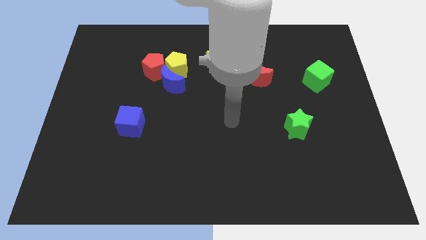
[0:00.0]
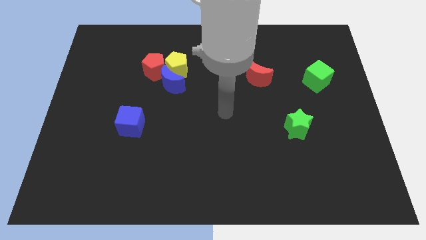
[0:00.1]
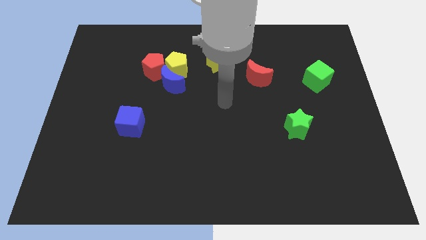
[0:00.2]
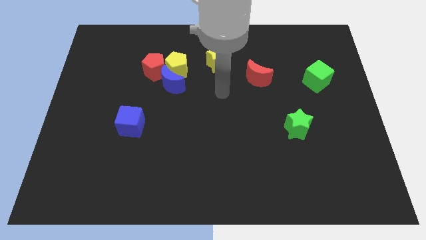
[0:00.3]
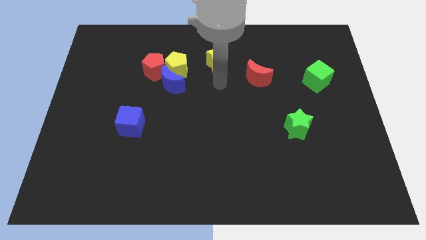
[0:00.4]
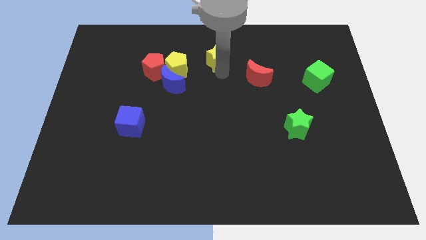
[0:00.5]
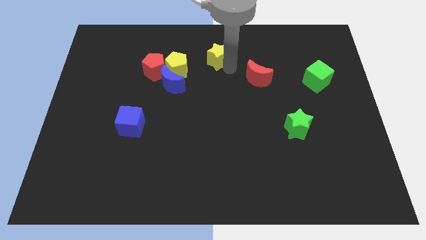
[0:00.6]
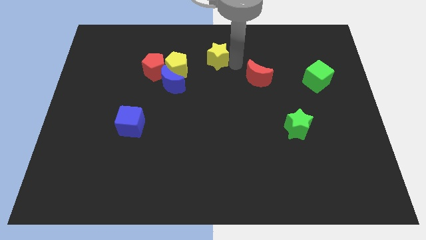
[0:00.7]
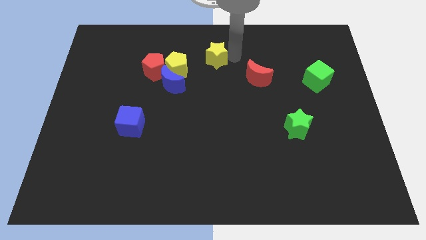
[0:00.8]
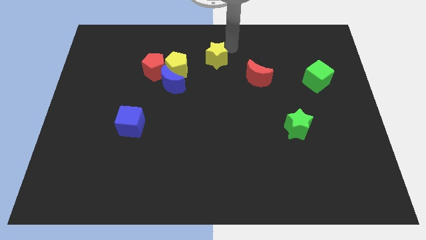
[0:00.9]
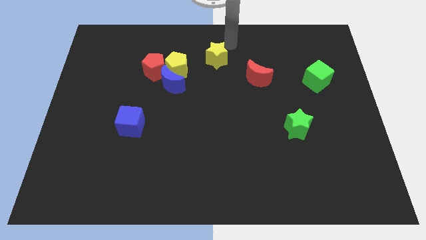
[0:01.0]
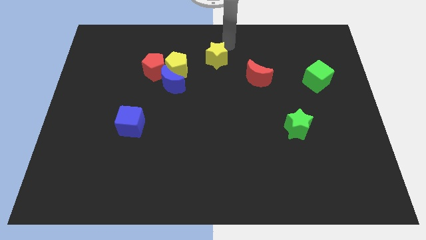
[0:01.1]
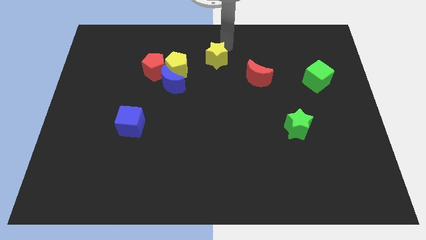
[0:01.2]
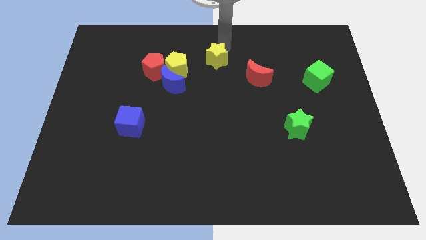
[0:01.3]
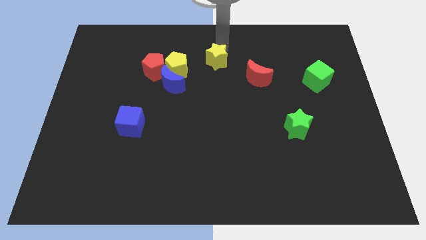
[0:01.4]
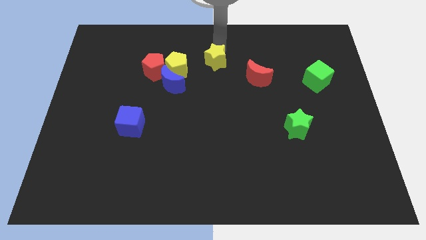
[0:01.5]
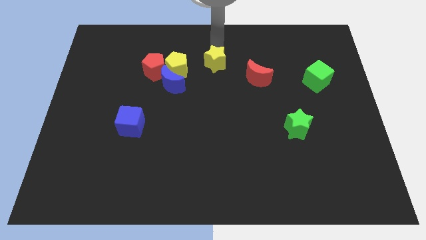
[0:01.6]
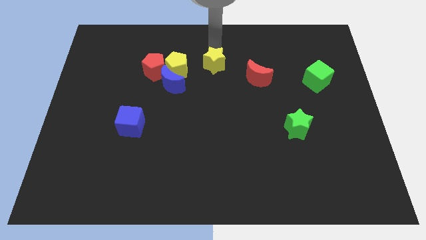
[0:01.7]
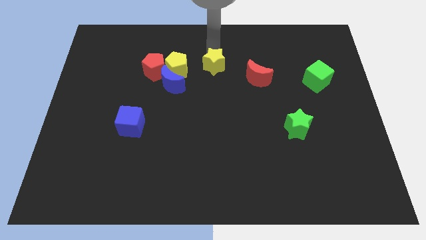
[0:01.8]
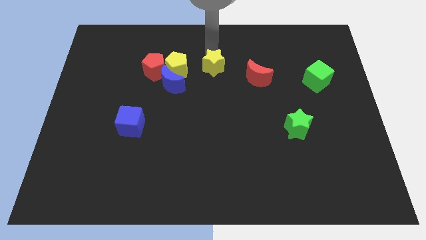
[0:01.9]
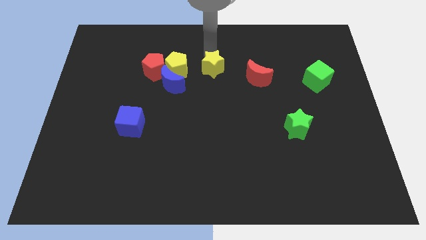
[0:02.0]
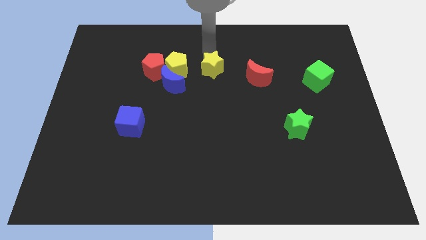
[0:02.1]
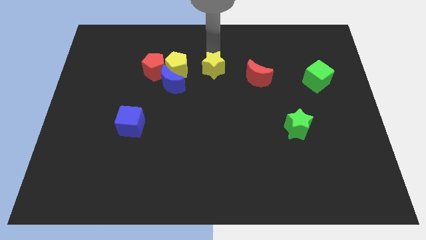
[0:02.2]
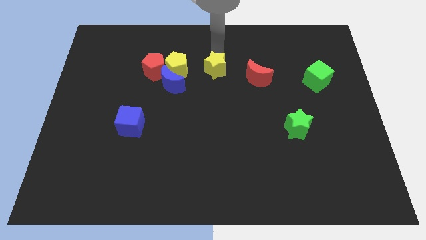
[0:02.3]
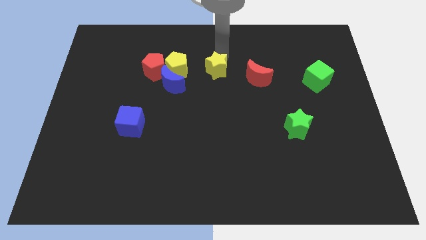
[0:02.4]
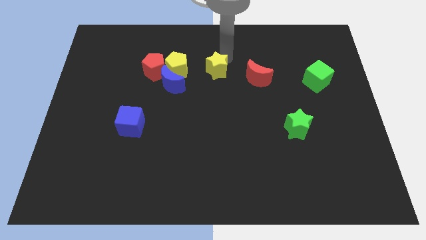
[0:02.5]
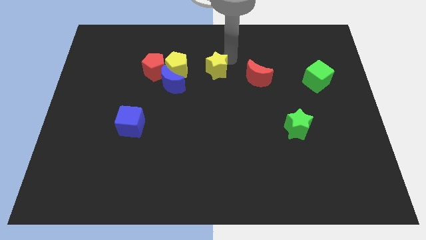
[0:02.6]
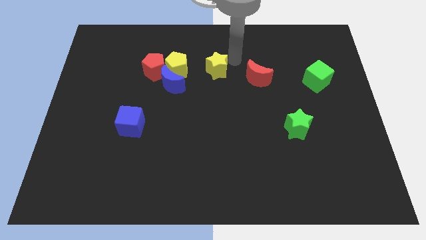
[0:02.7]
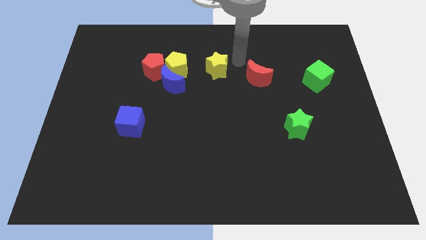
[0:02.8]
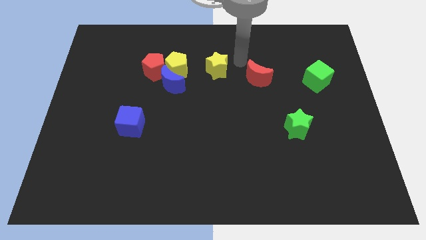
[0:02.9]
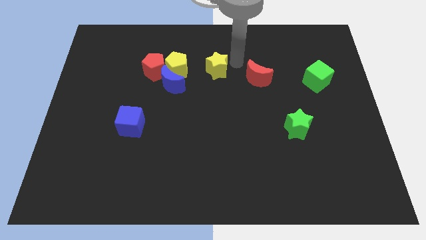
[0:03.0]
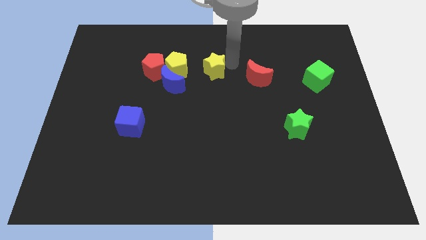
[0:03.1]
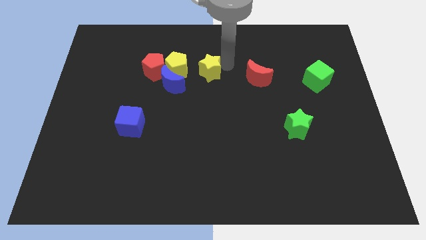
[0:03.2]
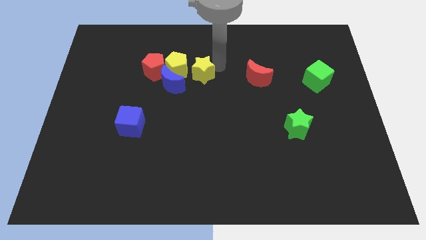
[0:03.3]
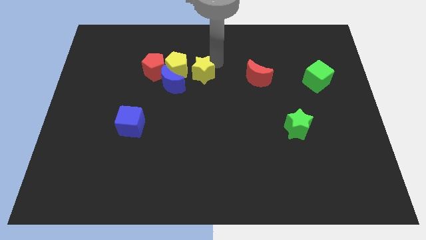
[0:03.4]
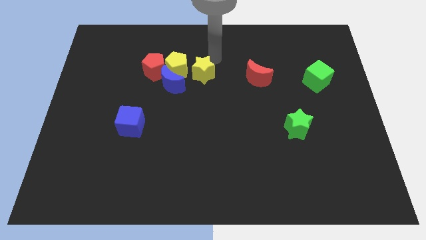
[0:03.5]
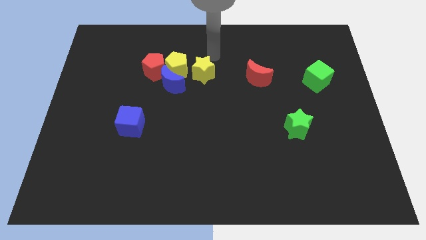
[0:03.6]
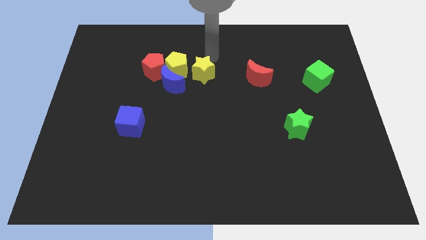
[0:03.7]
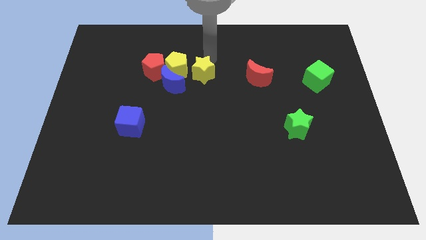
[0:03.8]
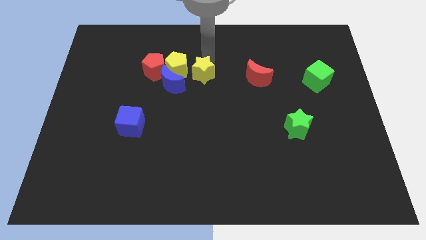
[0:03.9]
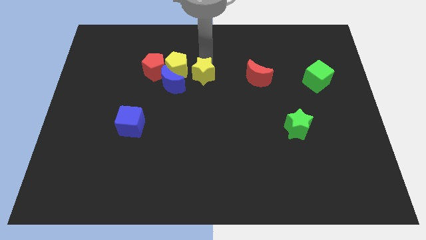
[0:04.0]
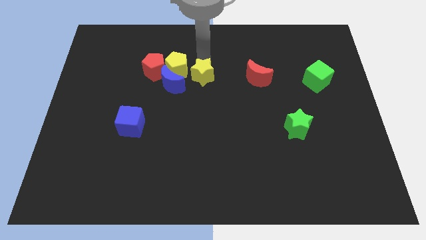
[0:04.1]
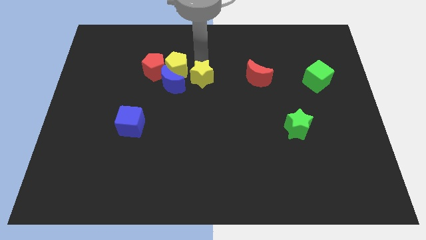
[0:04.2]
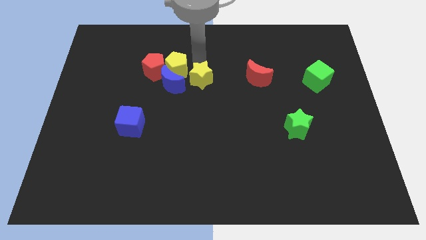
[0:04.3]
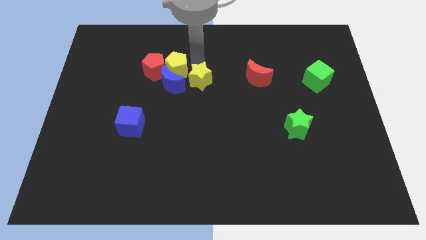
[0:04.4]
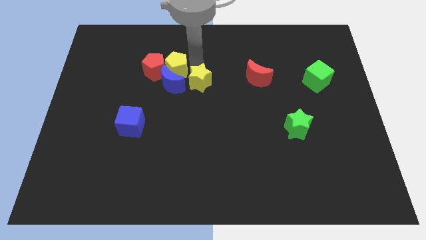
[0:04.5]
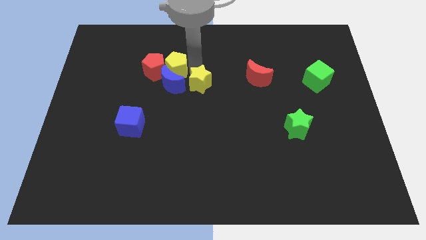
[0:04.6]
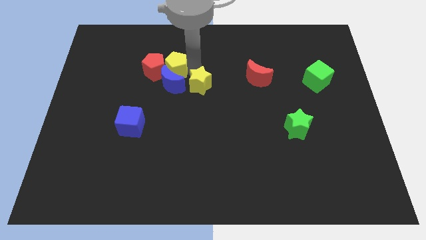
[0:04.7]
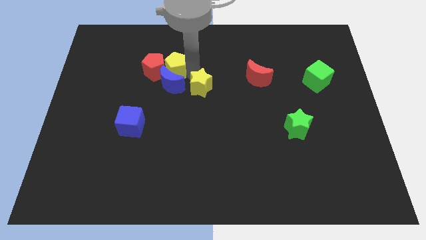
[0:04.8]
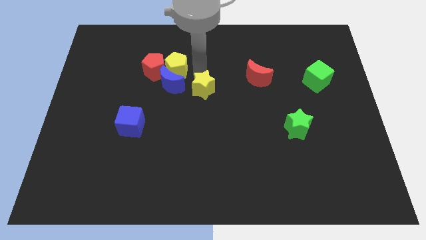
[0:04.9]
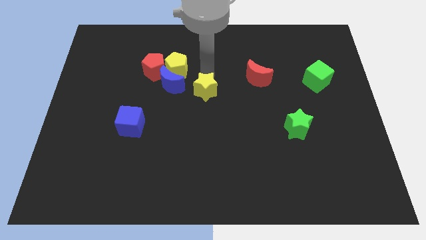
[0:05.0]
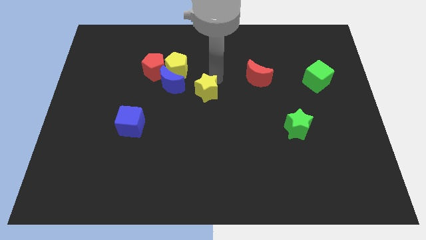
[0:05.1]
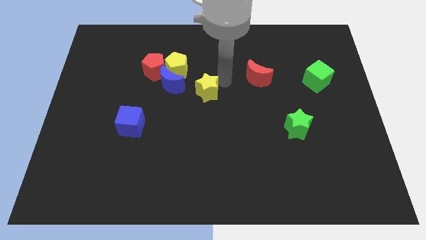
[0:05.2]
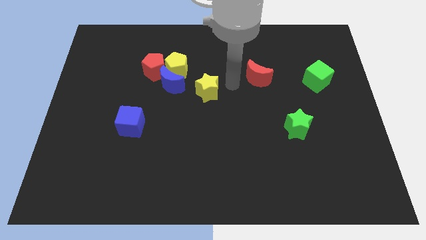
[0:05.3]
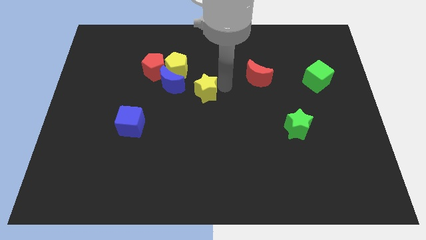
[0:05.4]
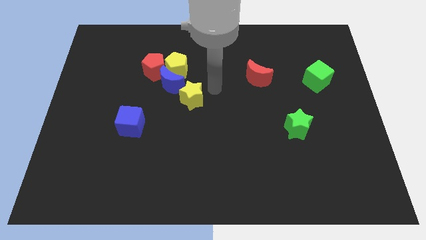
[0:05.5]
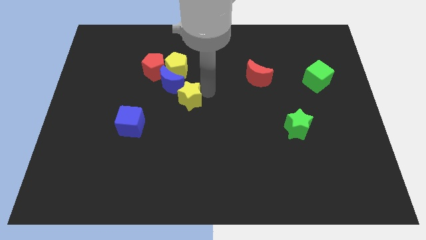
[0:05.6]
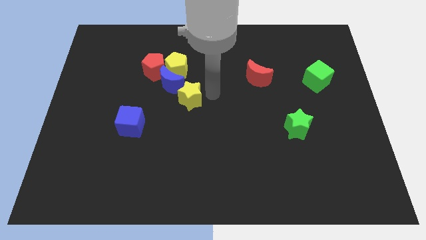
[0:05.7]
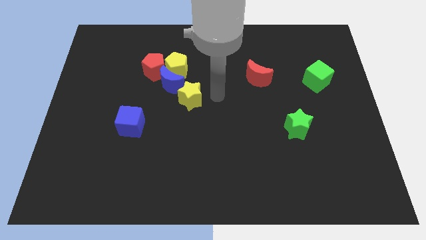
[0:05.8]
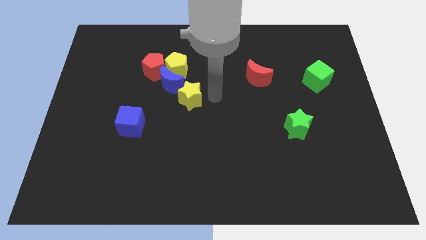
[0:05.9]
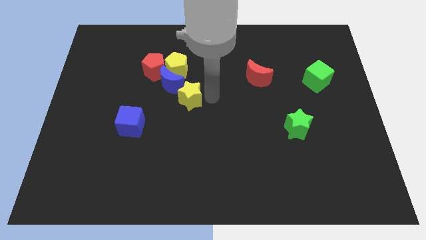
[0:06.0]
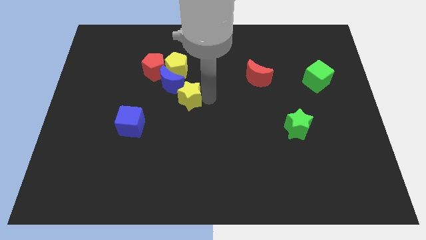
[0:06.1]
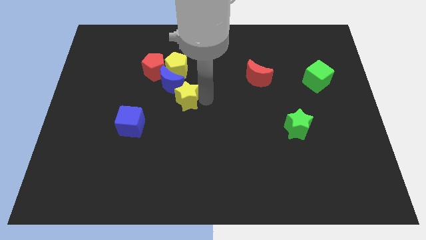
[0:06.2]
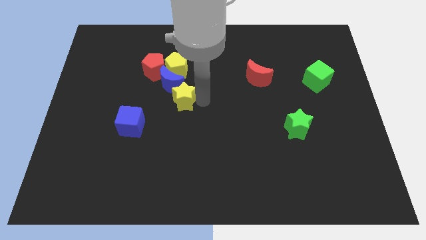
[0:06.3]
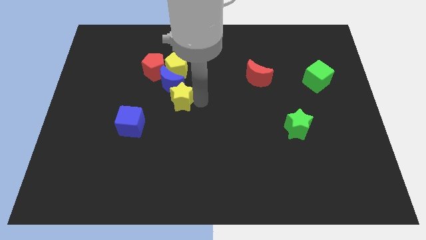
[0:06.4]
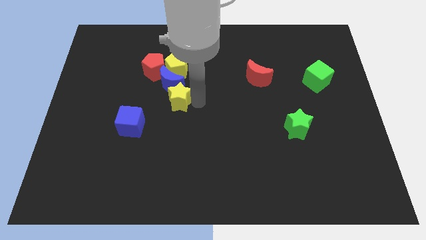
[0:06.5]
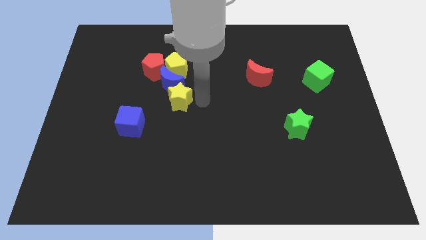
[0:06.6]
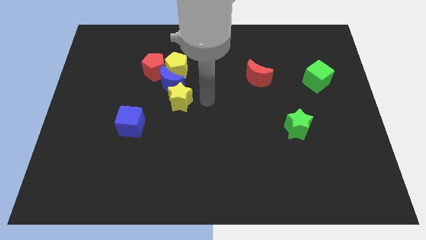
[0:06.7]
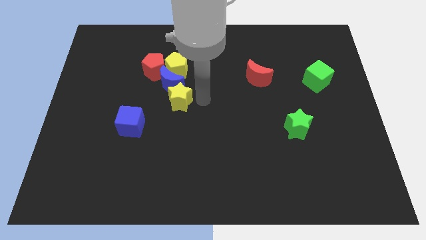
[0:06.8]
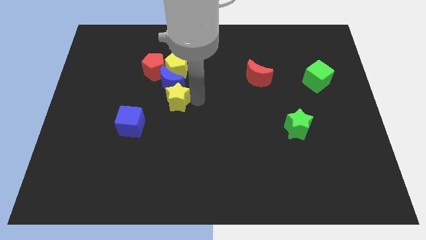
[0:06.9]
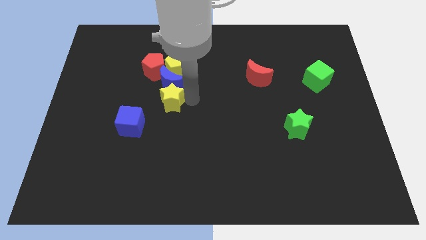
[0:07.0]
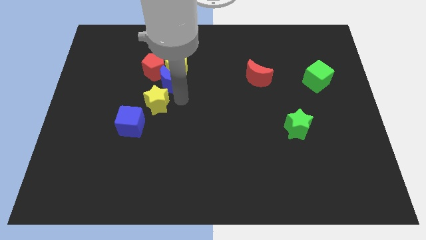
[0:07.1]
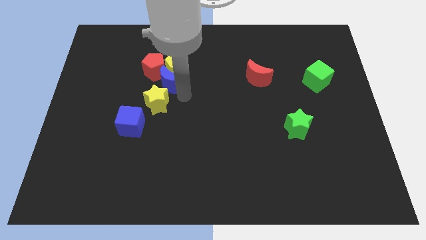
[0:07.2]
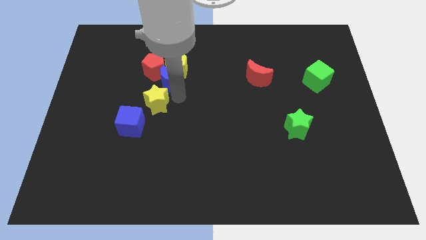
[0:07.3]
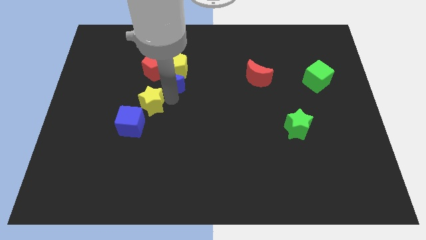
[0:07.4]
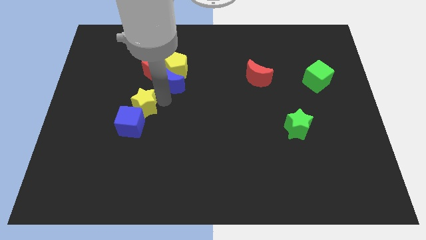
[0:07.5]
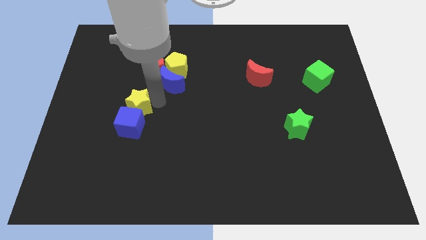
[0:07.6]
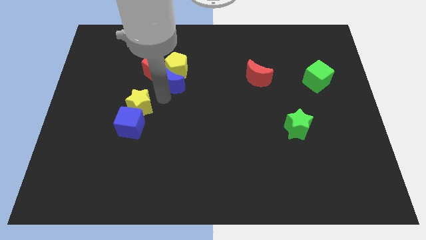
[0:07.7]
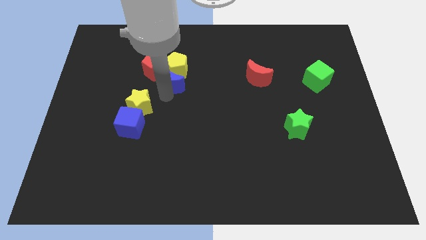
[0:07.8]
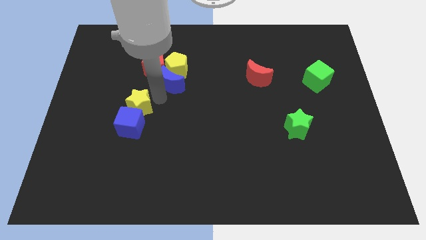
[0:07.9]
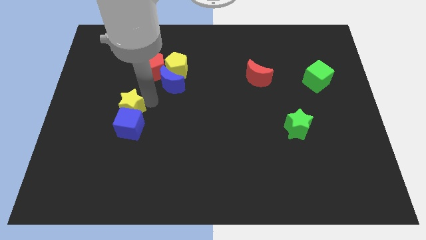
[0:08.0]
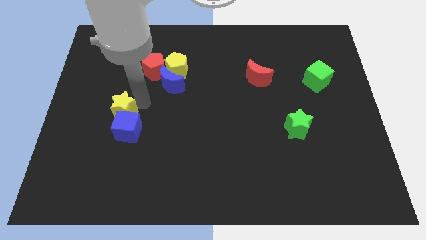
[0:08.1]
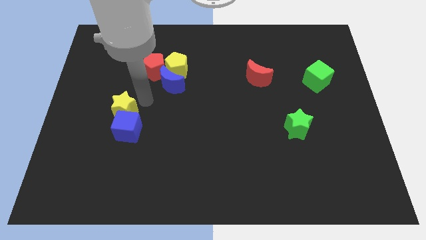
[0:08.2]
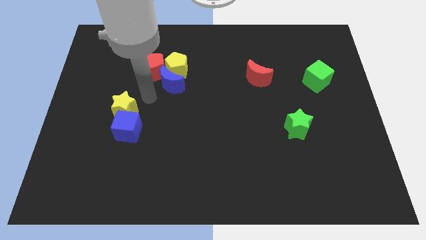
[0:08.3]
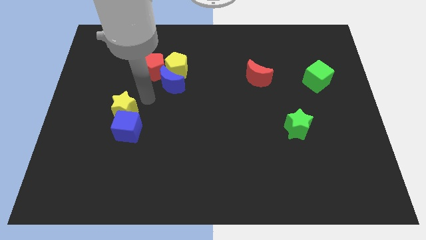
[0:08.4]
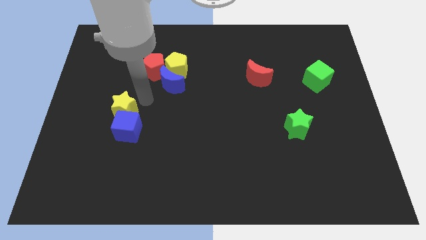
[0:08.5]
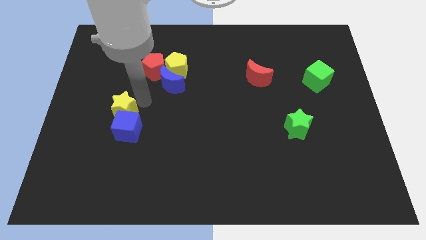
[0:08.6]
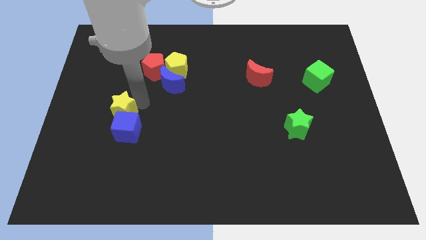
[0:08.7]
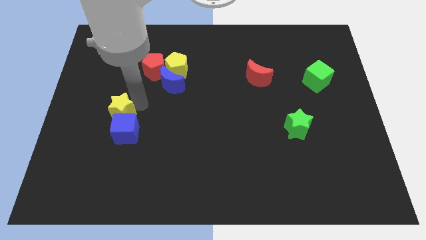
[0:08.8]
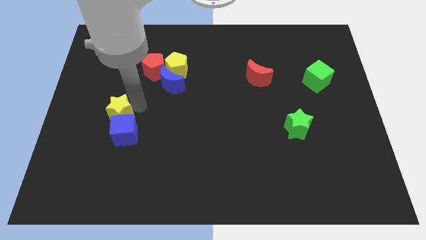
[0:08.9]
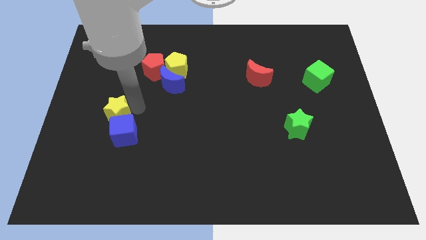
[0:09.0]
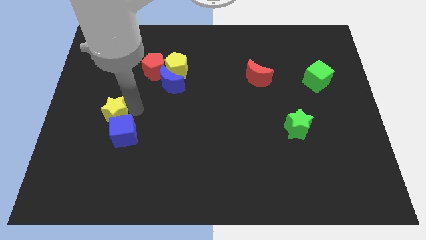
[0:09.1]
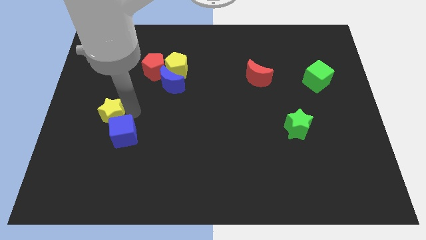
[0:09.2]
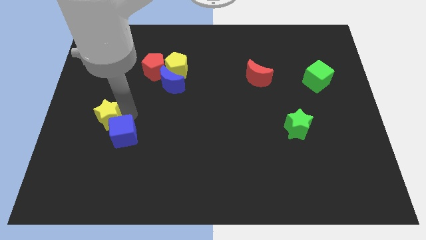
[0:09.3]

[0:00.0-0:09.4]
push the yellow star just left of the blue cube
